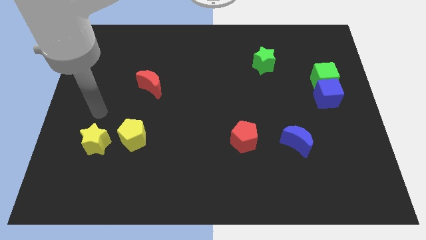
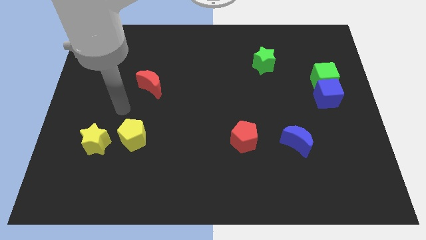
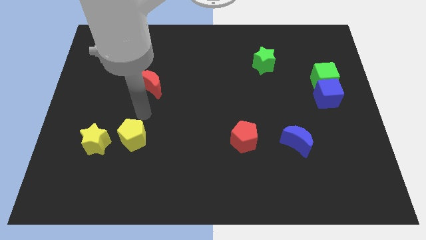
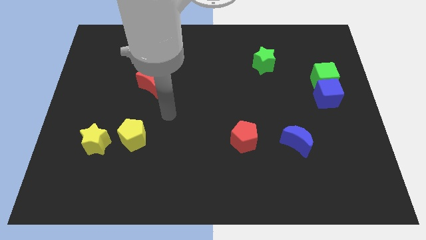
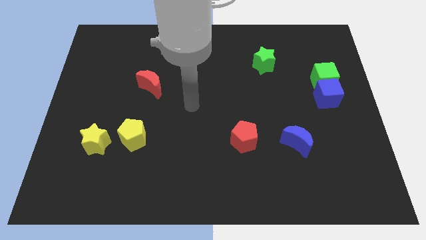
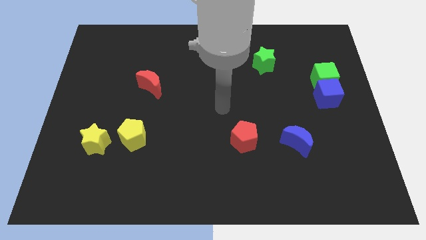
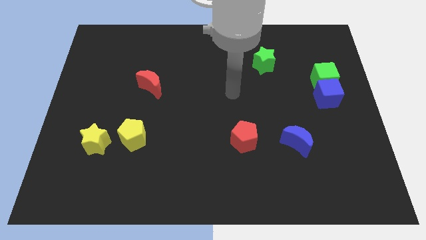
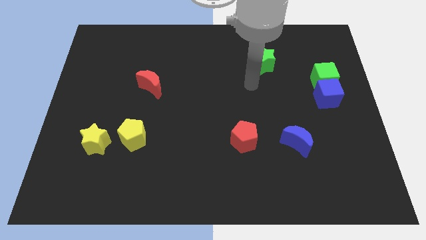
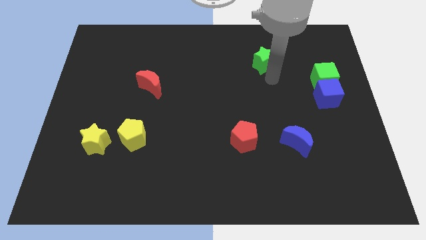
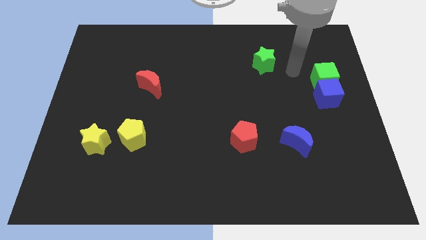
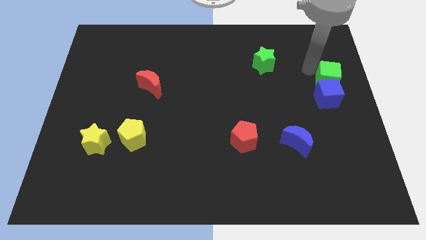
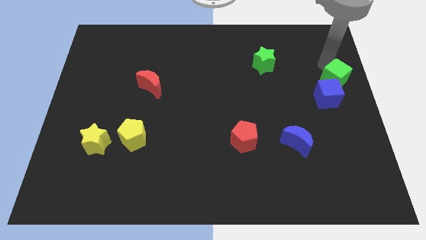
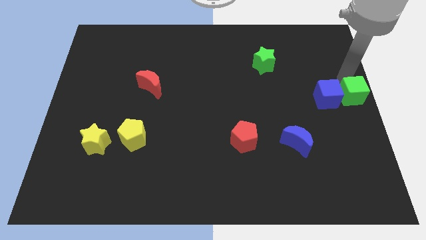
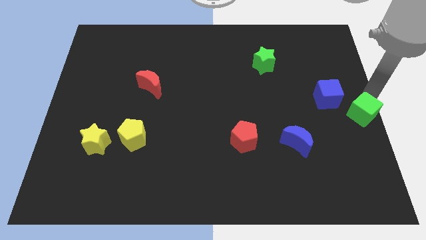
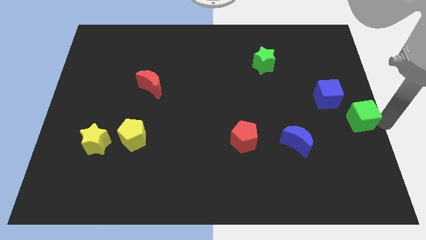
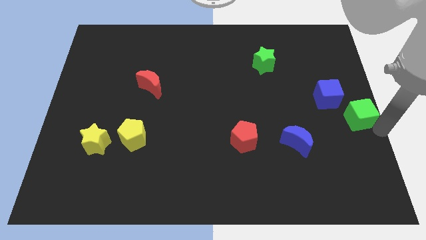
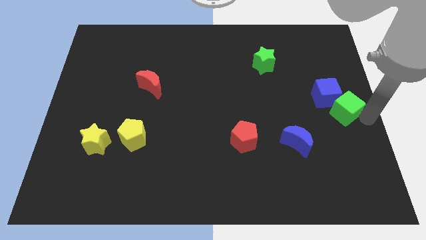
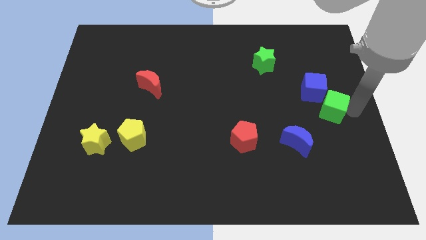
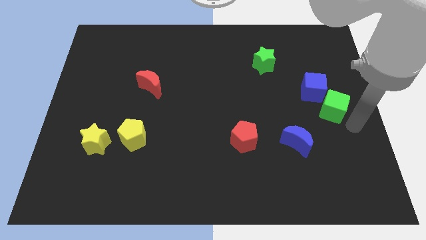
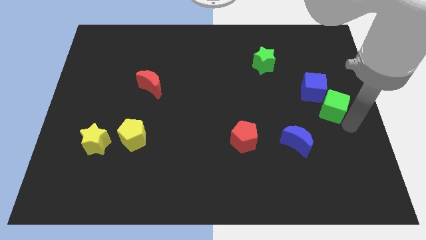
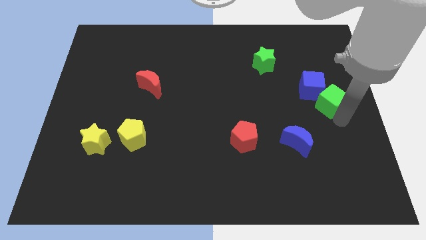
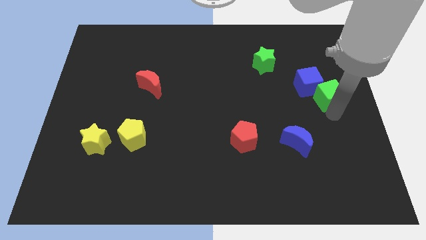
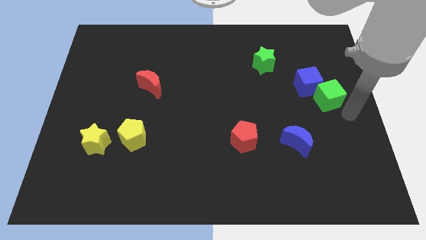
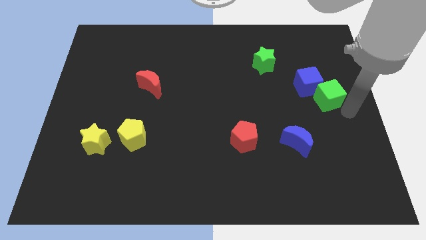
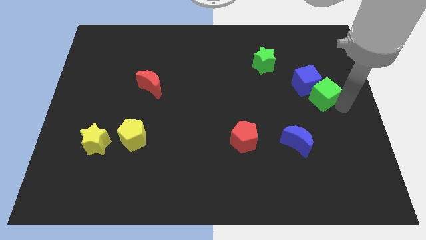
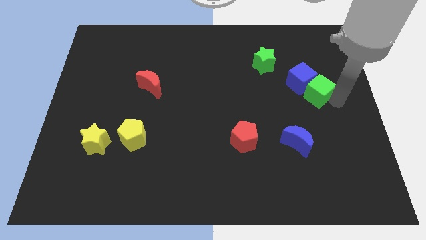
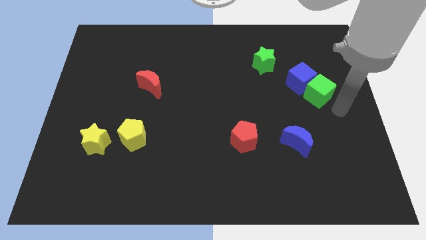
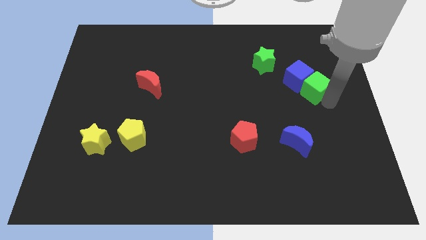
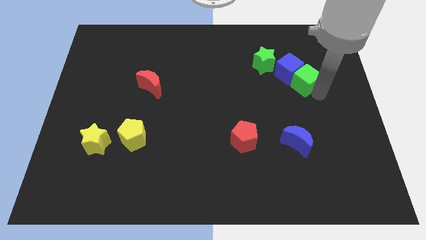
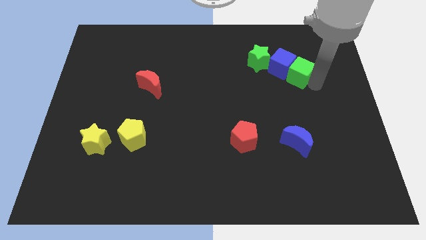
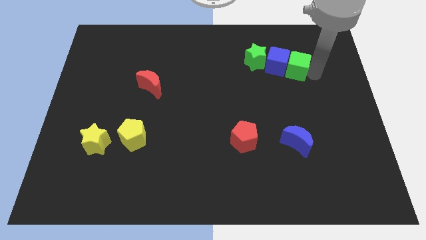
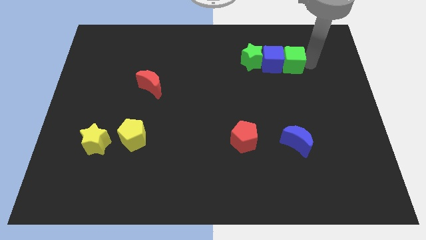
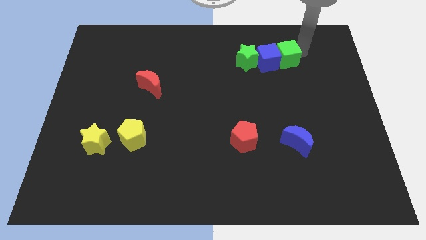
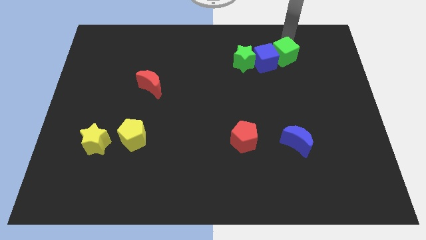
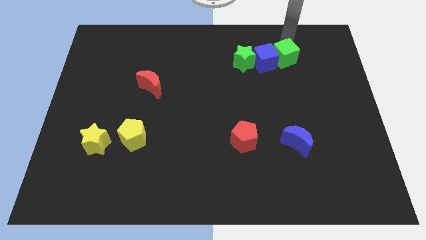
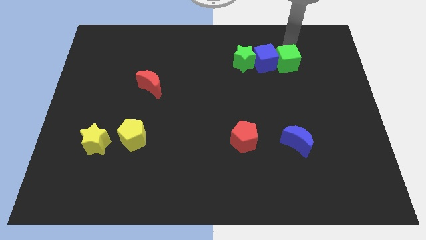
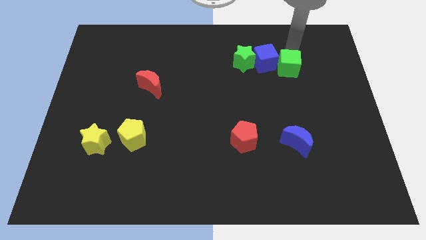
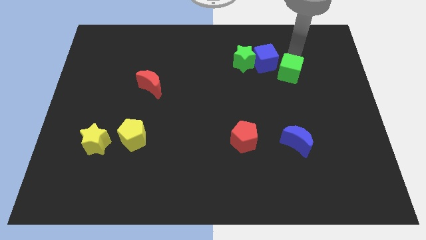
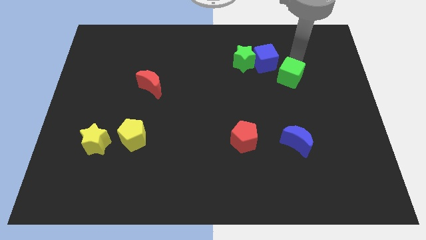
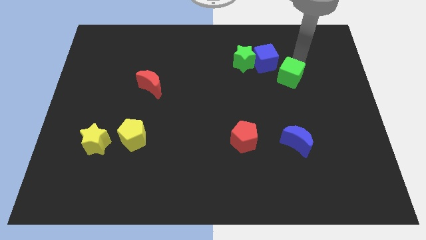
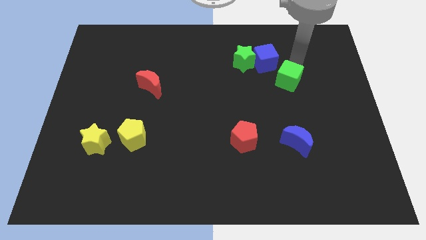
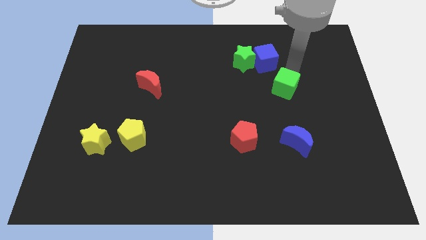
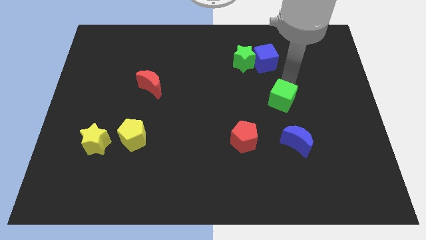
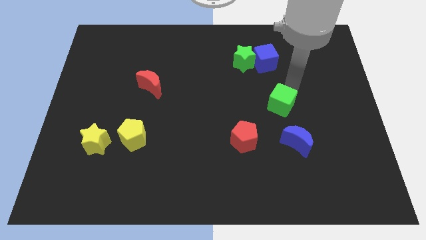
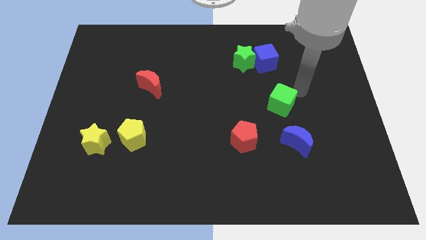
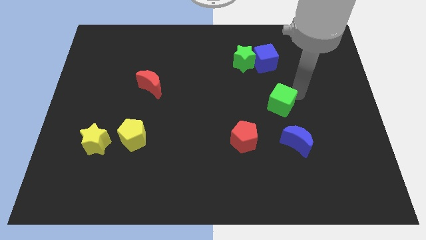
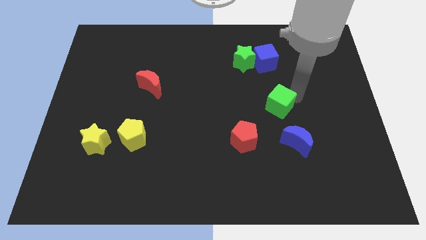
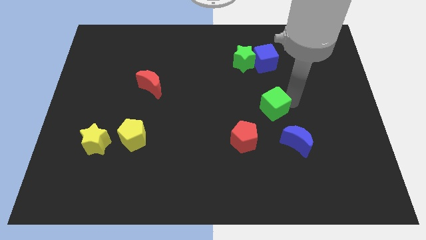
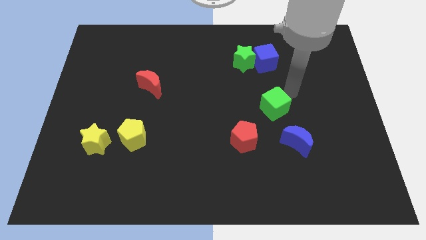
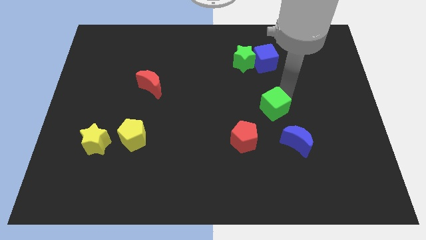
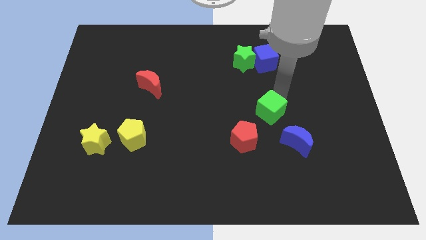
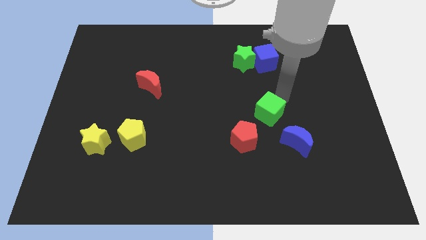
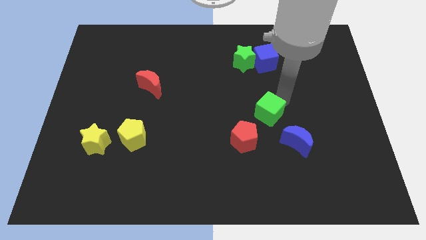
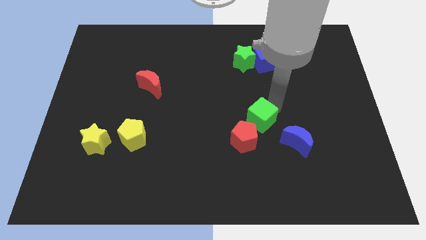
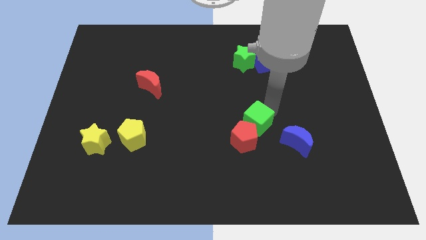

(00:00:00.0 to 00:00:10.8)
slide the green cube close to the red pentagon
